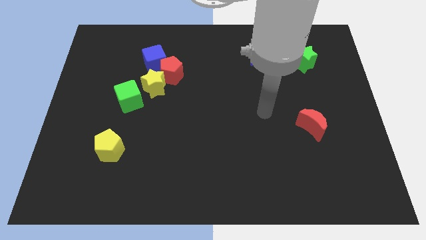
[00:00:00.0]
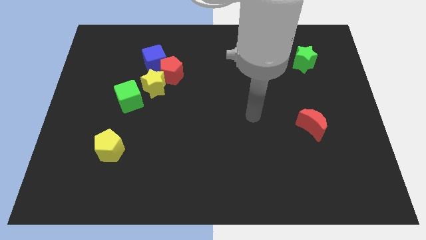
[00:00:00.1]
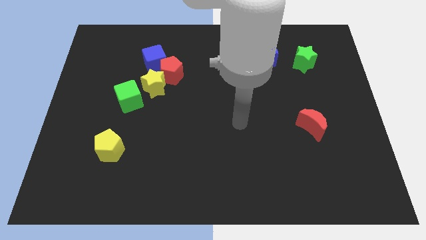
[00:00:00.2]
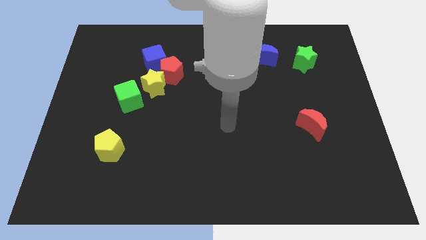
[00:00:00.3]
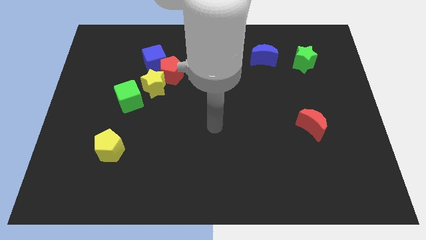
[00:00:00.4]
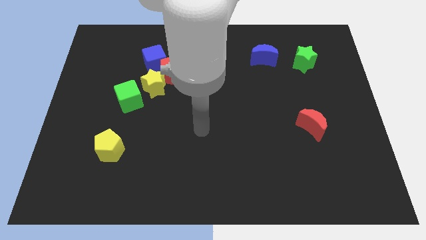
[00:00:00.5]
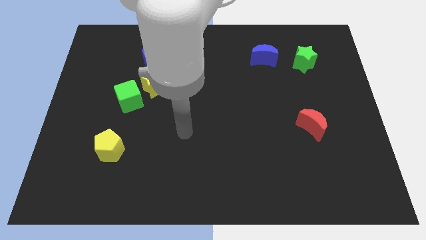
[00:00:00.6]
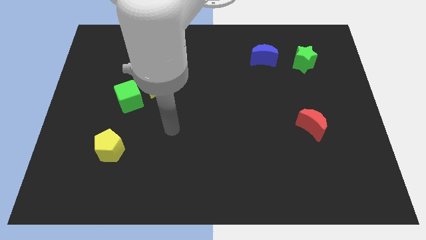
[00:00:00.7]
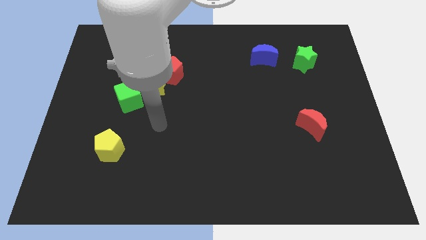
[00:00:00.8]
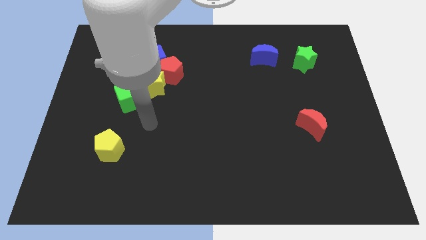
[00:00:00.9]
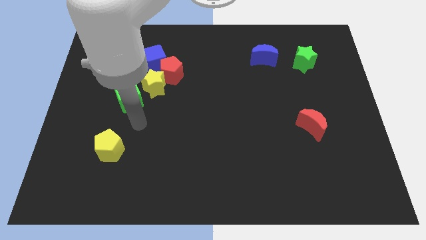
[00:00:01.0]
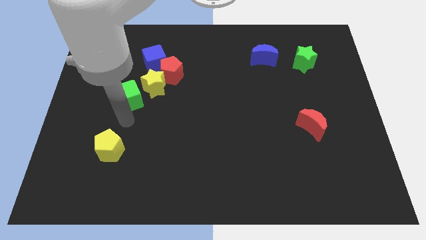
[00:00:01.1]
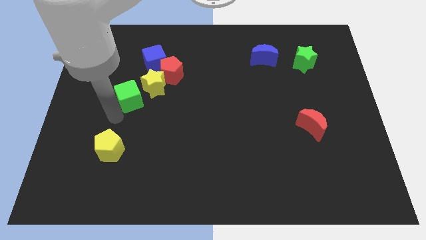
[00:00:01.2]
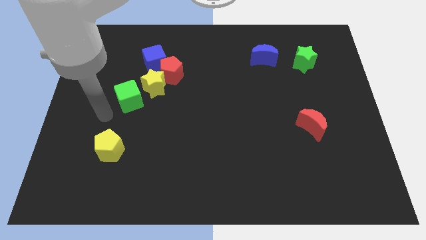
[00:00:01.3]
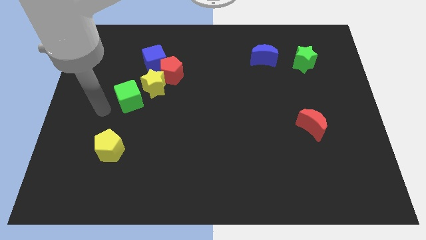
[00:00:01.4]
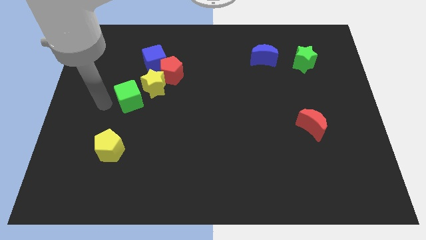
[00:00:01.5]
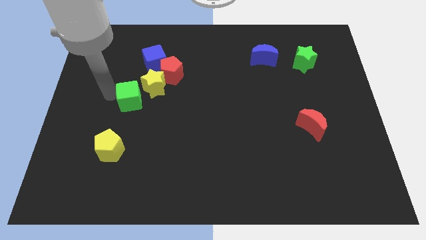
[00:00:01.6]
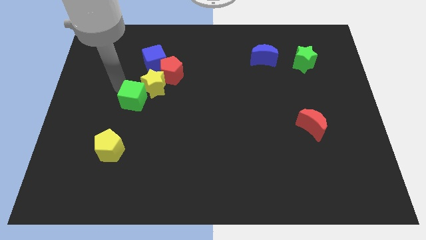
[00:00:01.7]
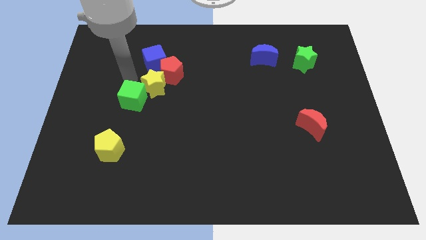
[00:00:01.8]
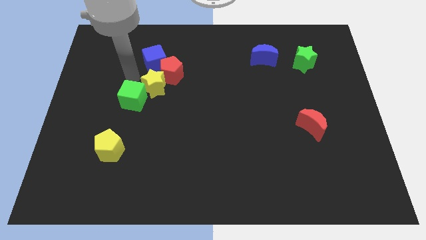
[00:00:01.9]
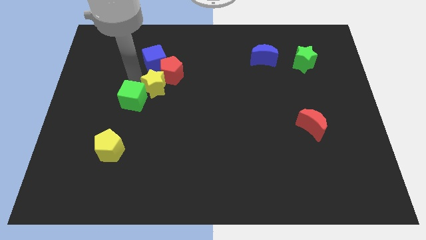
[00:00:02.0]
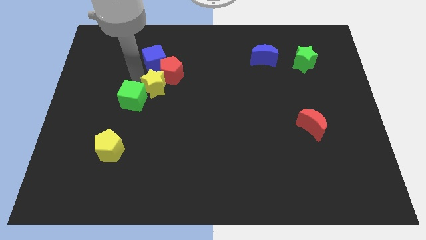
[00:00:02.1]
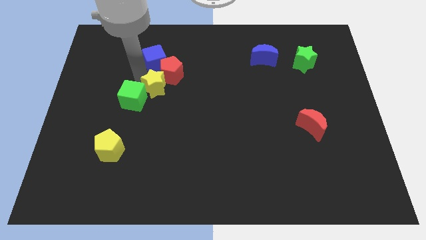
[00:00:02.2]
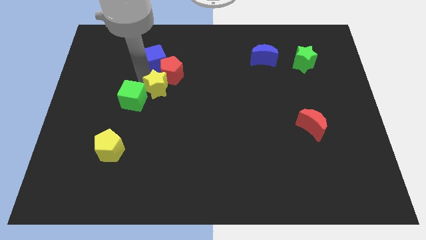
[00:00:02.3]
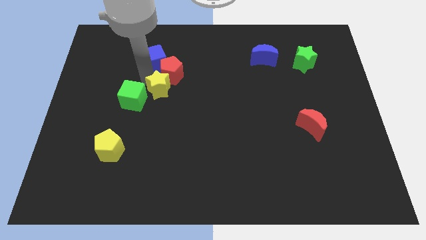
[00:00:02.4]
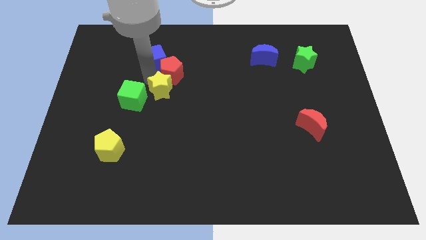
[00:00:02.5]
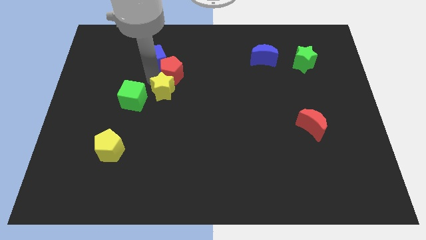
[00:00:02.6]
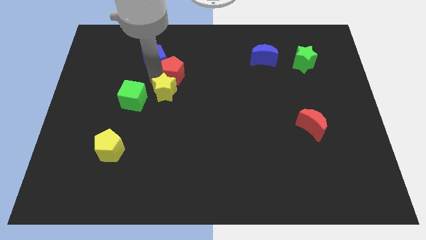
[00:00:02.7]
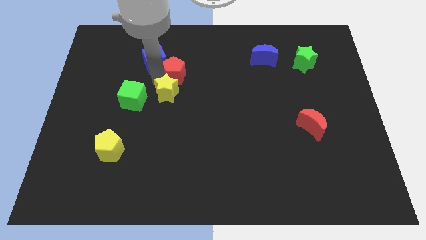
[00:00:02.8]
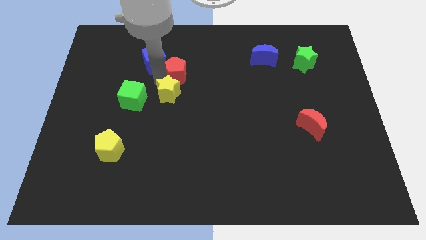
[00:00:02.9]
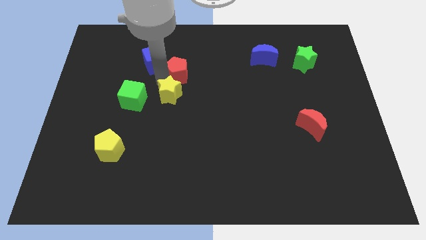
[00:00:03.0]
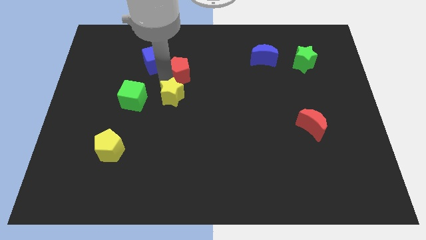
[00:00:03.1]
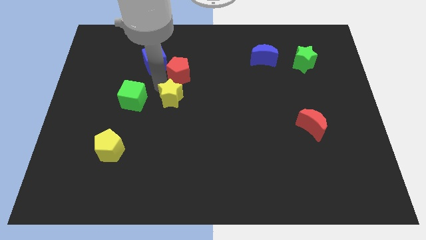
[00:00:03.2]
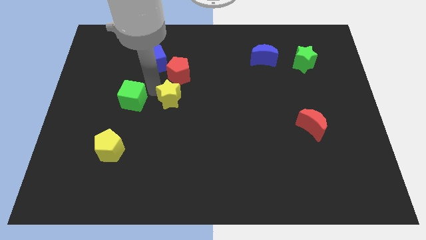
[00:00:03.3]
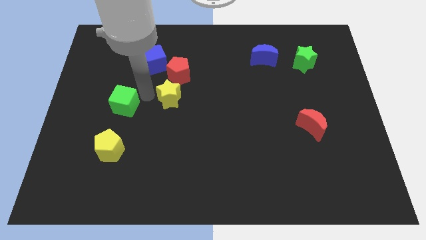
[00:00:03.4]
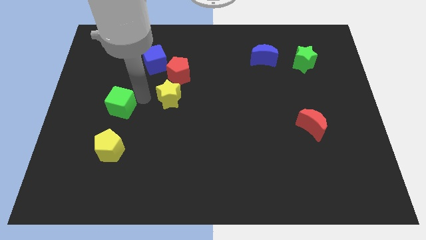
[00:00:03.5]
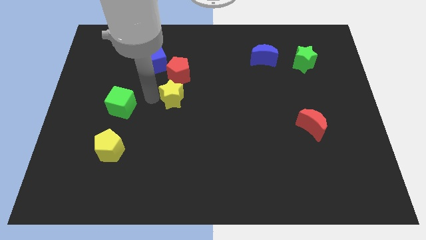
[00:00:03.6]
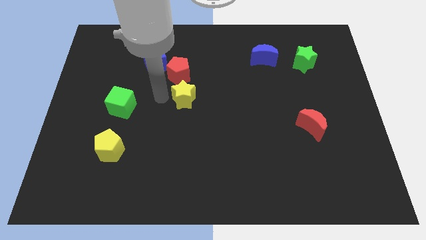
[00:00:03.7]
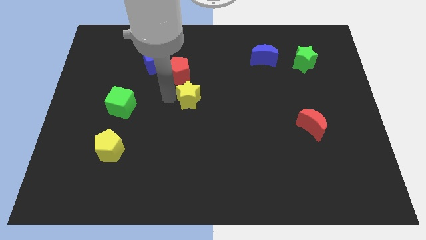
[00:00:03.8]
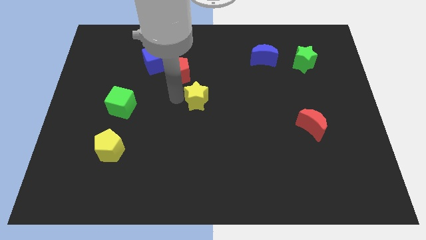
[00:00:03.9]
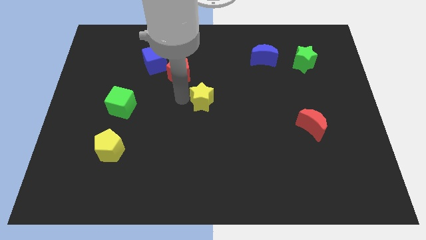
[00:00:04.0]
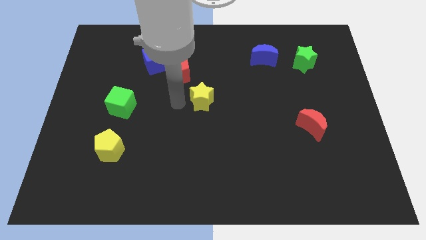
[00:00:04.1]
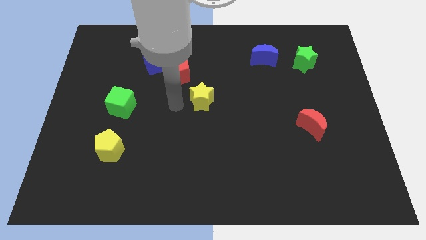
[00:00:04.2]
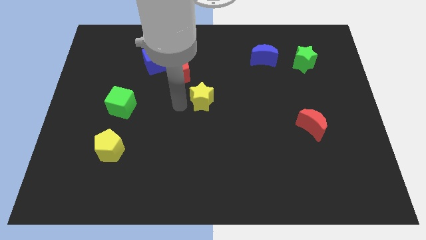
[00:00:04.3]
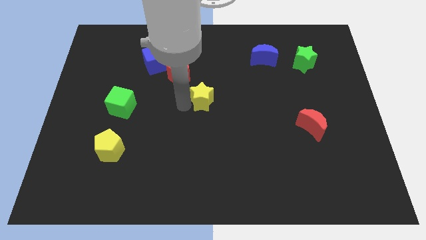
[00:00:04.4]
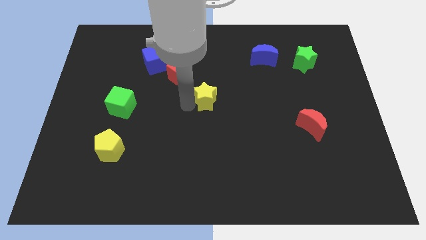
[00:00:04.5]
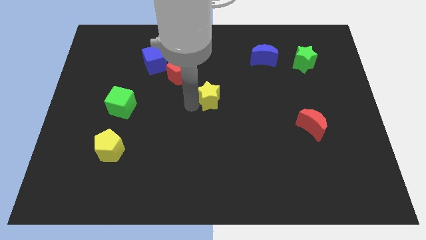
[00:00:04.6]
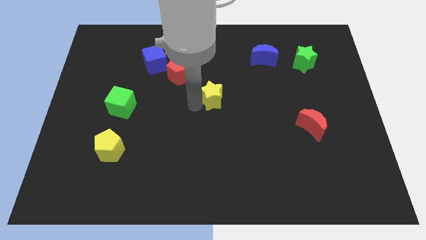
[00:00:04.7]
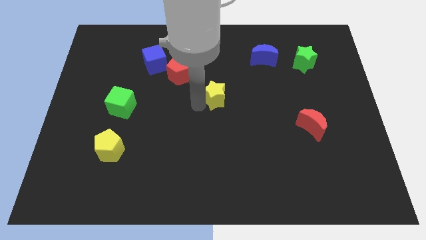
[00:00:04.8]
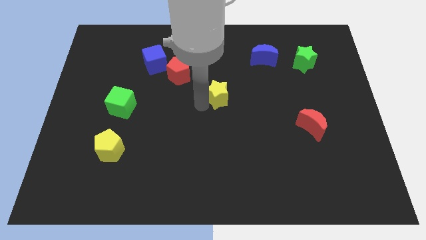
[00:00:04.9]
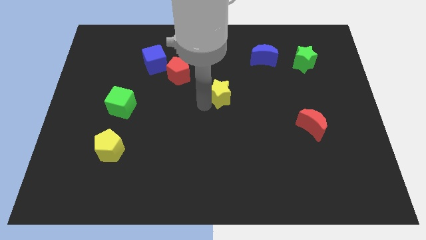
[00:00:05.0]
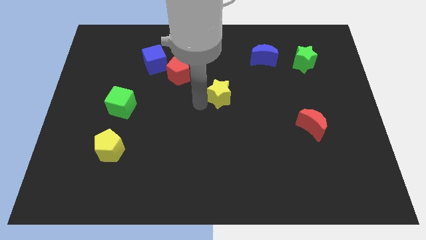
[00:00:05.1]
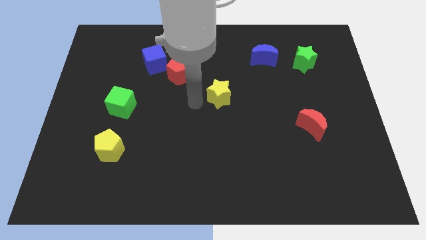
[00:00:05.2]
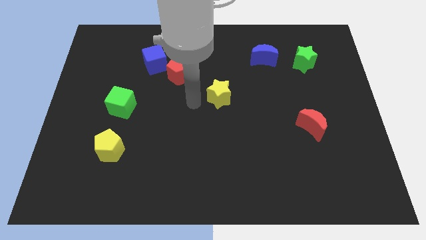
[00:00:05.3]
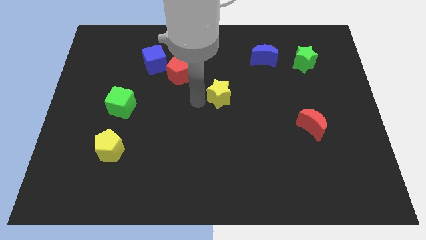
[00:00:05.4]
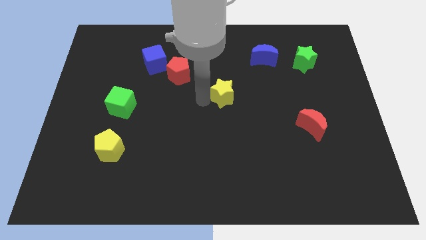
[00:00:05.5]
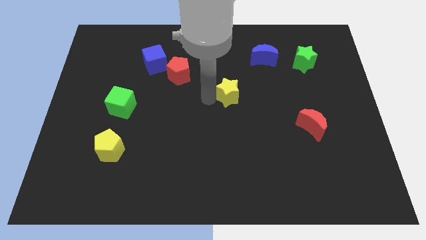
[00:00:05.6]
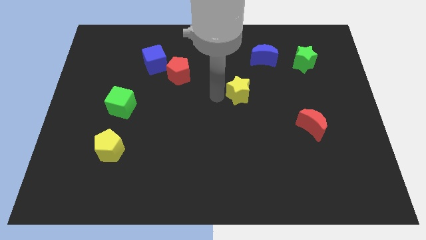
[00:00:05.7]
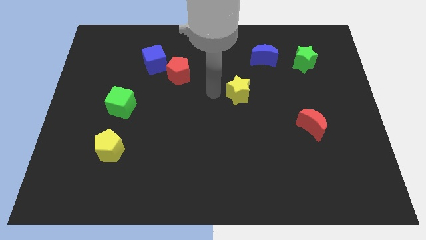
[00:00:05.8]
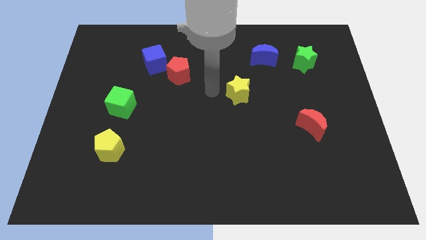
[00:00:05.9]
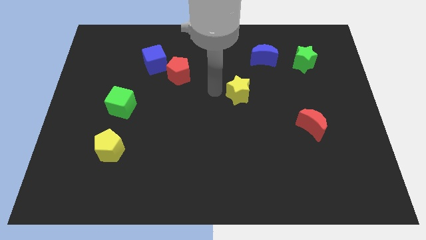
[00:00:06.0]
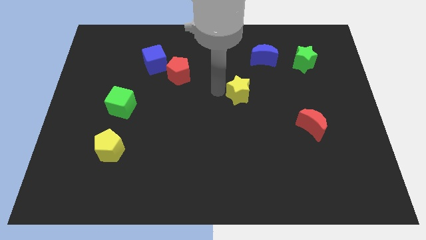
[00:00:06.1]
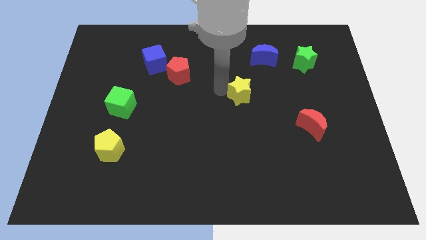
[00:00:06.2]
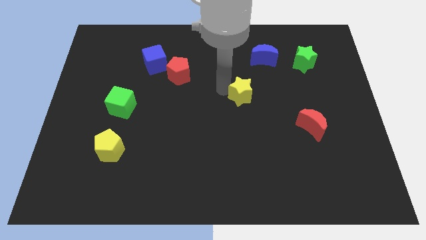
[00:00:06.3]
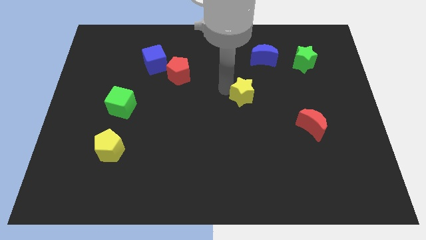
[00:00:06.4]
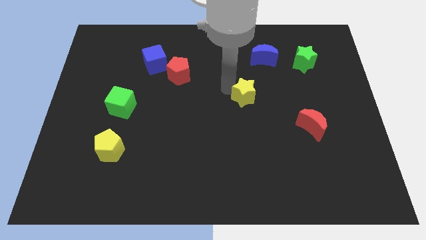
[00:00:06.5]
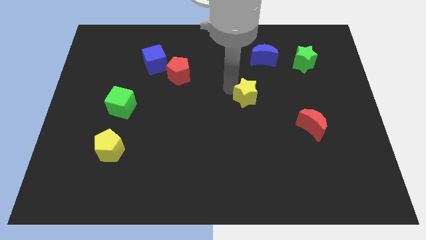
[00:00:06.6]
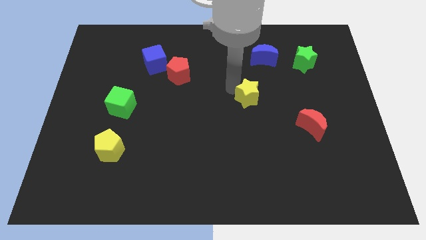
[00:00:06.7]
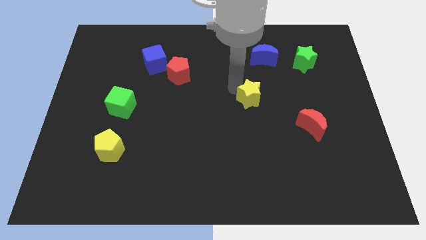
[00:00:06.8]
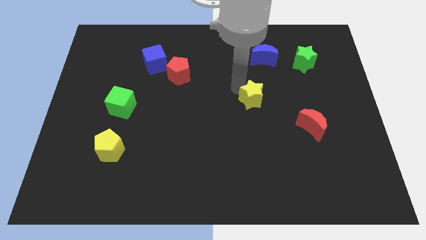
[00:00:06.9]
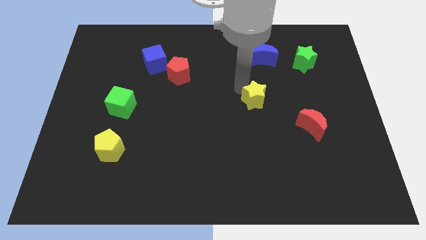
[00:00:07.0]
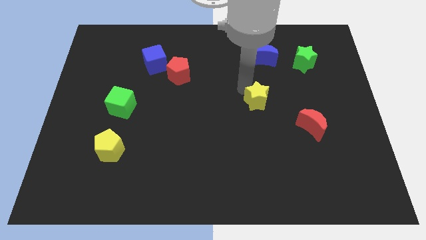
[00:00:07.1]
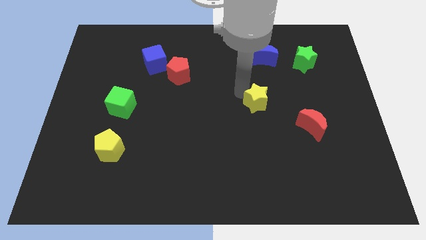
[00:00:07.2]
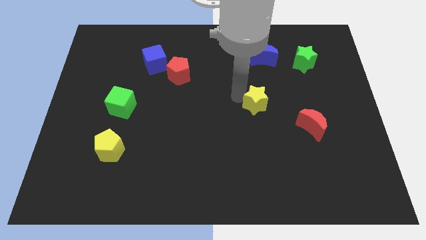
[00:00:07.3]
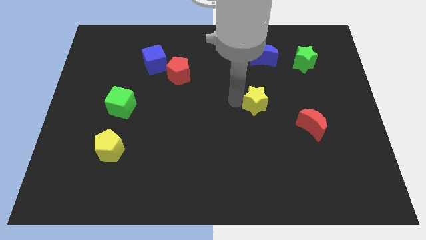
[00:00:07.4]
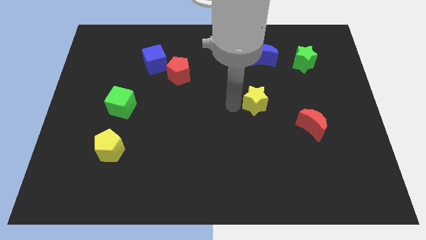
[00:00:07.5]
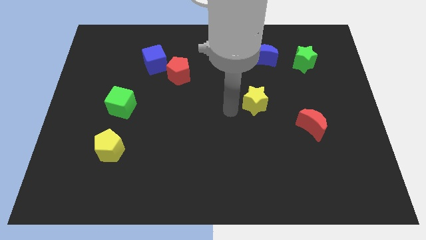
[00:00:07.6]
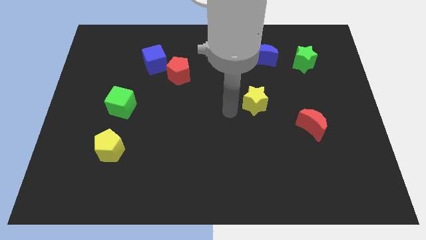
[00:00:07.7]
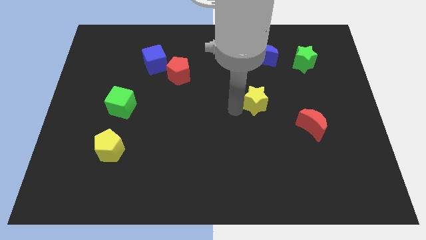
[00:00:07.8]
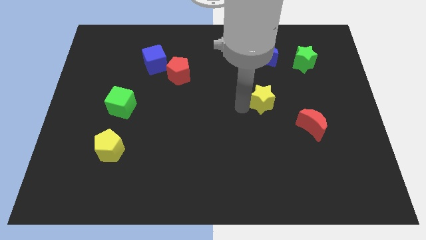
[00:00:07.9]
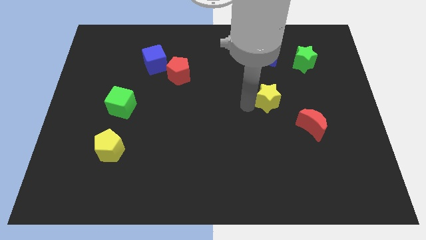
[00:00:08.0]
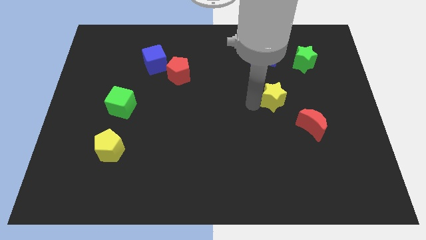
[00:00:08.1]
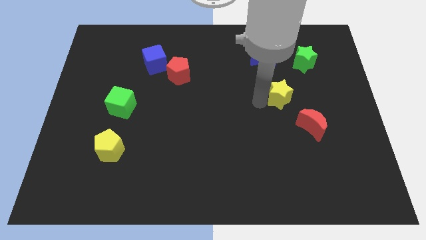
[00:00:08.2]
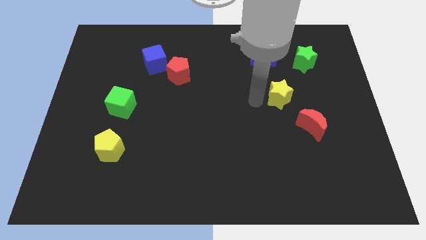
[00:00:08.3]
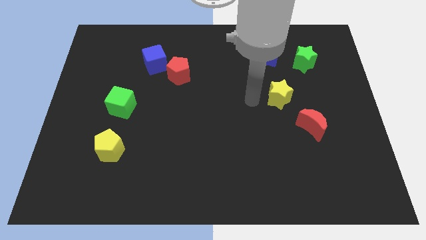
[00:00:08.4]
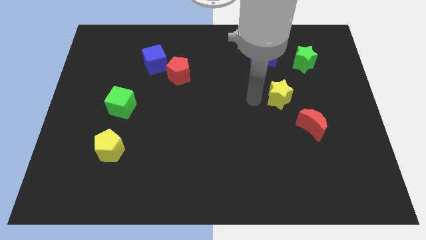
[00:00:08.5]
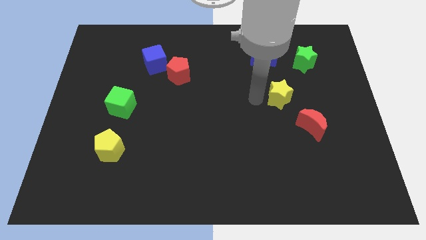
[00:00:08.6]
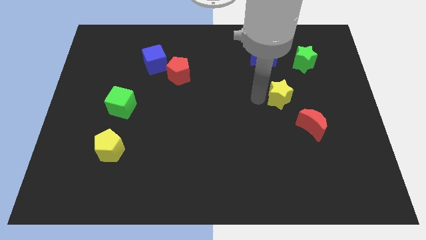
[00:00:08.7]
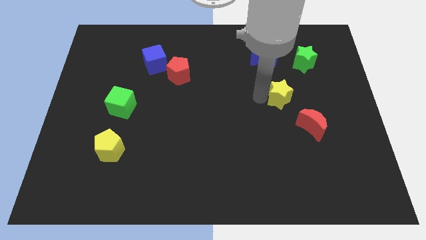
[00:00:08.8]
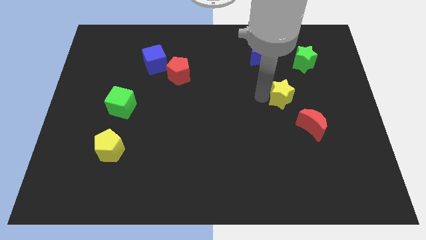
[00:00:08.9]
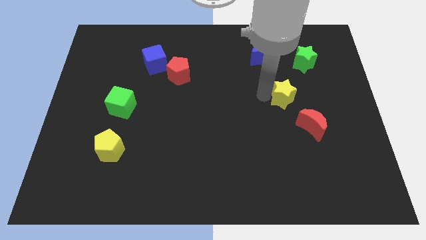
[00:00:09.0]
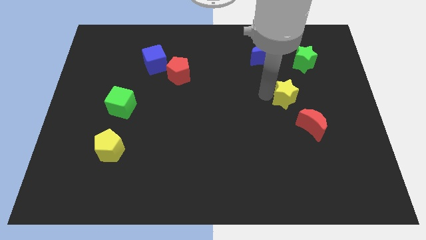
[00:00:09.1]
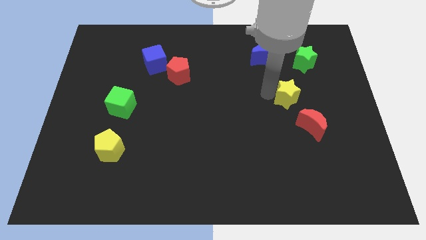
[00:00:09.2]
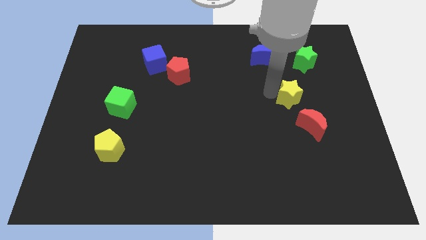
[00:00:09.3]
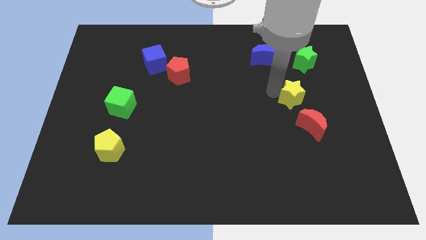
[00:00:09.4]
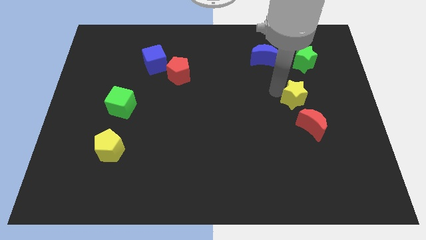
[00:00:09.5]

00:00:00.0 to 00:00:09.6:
slide the yellow star to the bottom side of the green star
